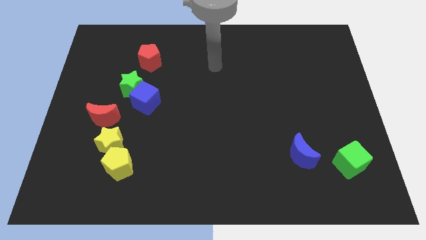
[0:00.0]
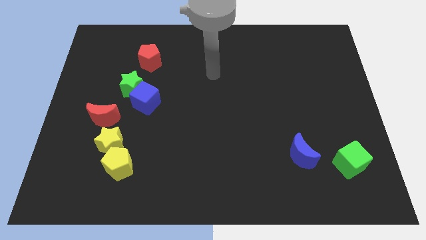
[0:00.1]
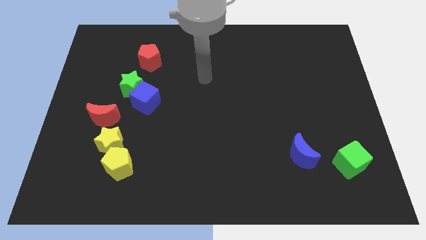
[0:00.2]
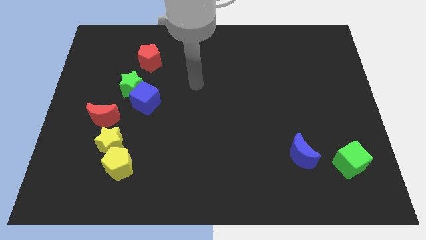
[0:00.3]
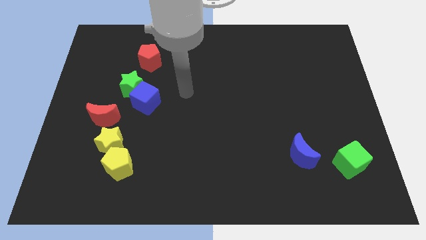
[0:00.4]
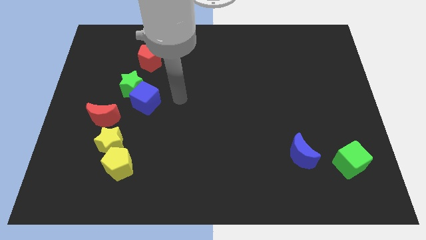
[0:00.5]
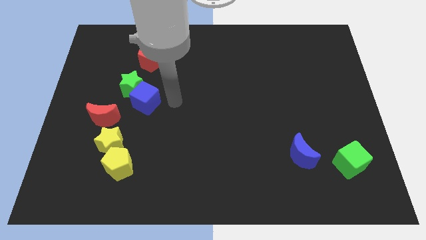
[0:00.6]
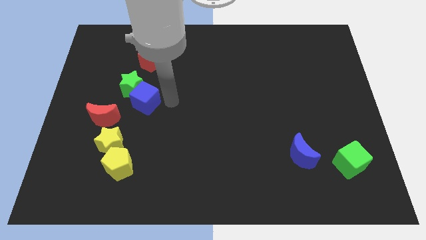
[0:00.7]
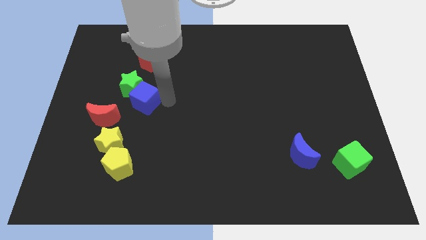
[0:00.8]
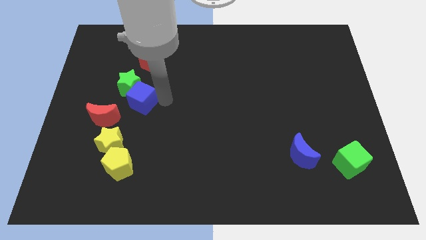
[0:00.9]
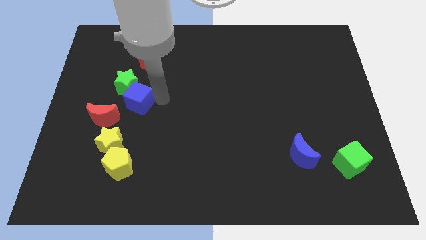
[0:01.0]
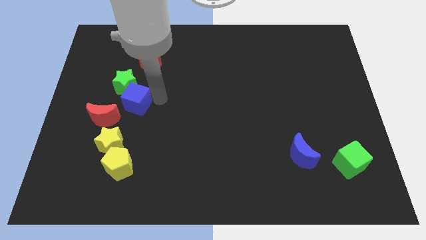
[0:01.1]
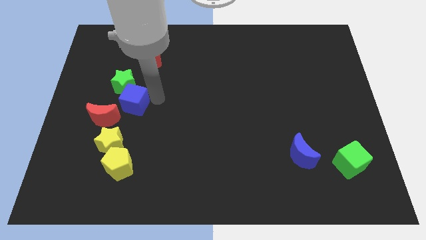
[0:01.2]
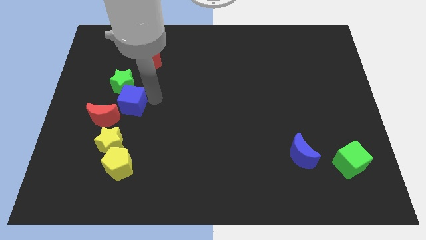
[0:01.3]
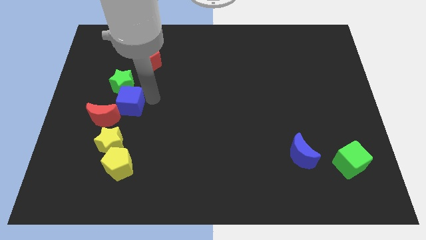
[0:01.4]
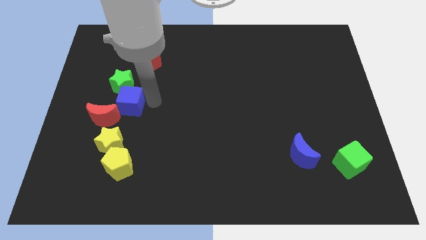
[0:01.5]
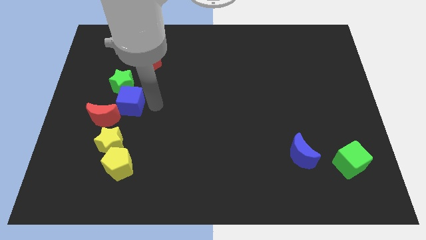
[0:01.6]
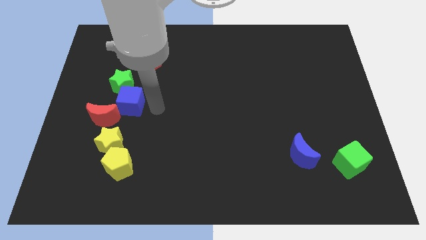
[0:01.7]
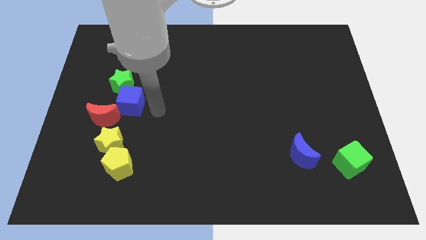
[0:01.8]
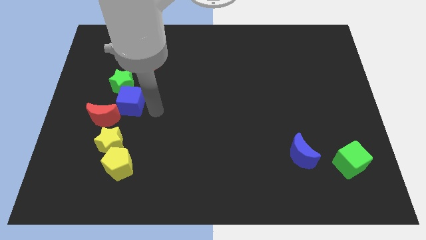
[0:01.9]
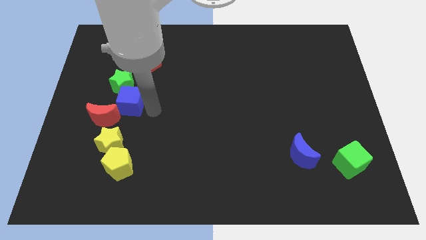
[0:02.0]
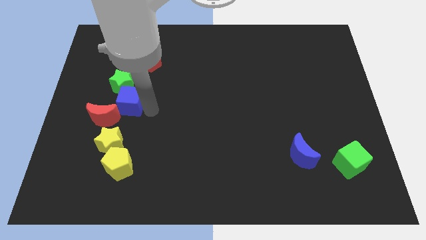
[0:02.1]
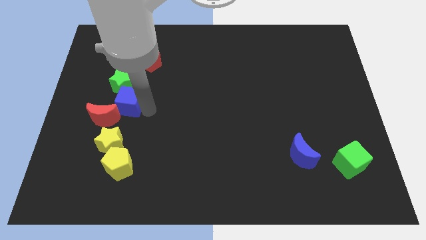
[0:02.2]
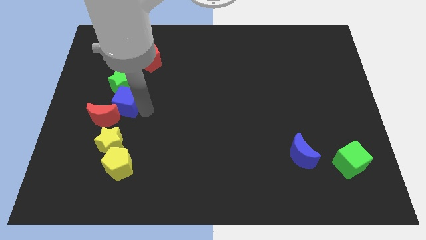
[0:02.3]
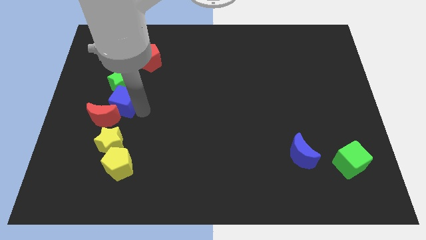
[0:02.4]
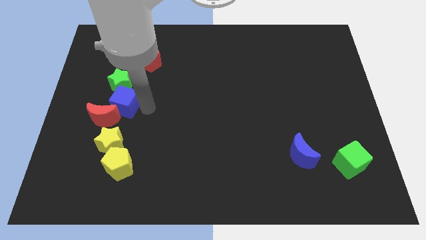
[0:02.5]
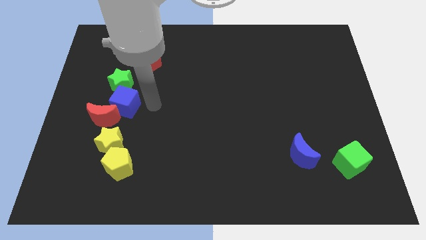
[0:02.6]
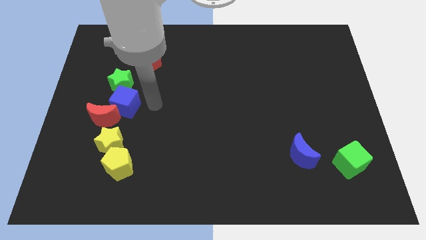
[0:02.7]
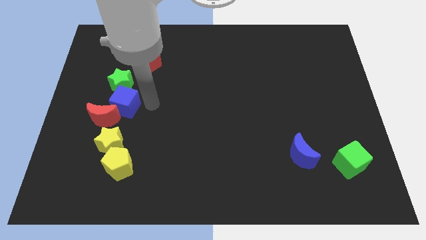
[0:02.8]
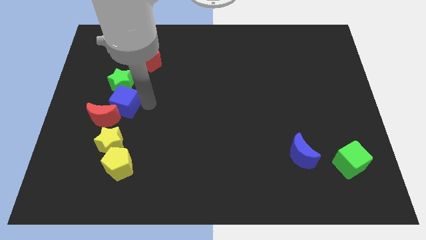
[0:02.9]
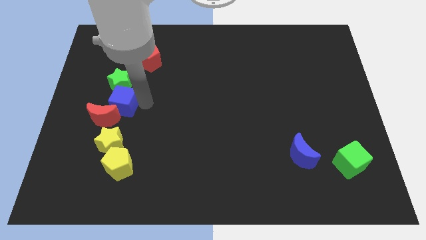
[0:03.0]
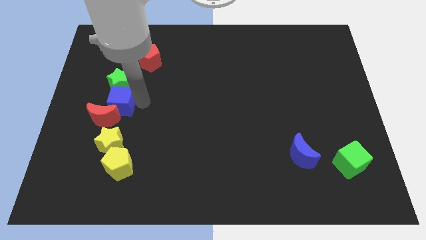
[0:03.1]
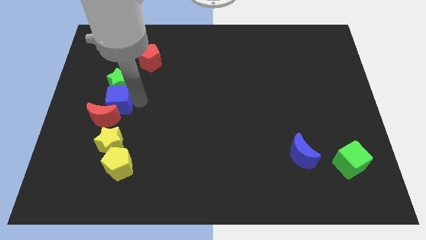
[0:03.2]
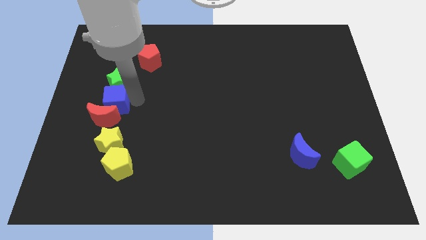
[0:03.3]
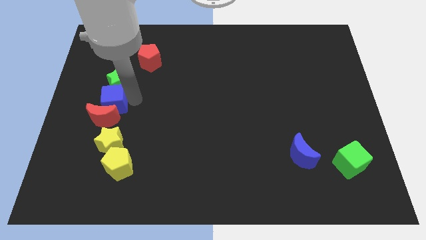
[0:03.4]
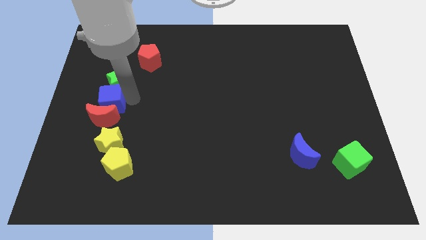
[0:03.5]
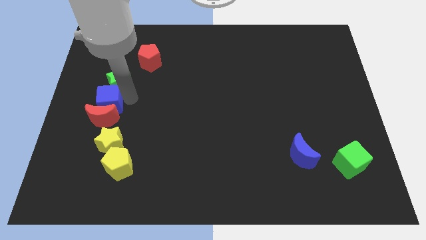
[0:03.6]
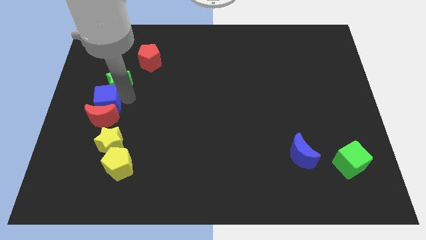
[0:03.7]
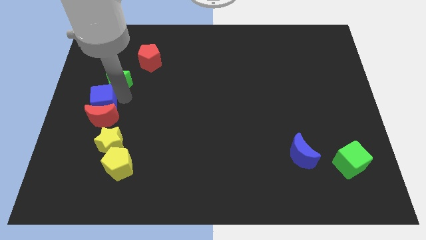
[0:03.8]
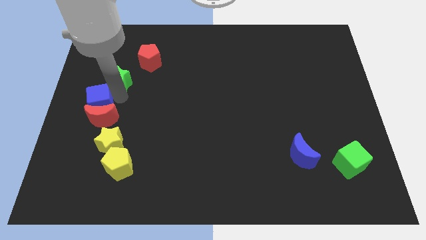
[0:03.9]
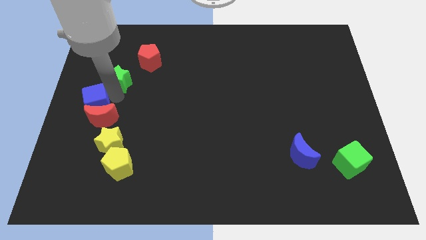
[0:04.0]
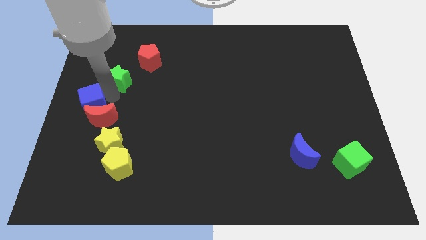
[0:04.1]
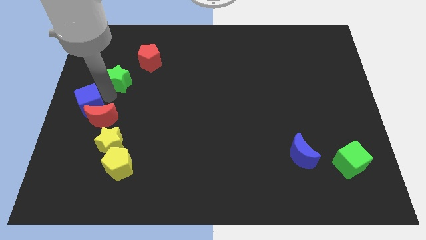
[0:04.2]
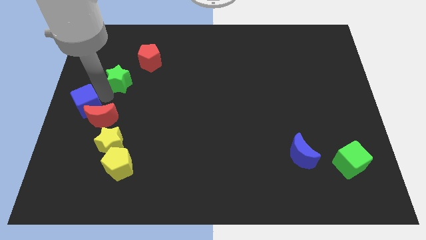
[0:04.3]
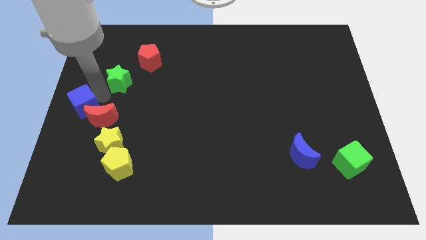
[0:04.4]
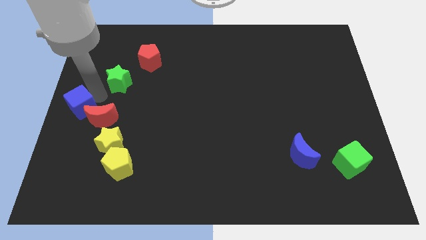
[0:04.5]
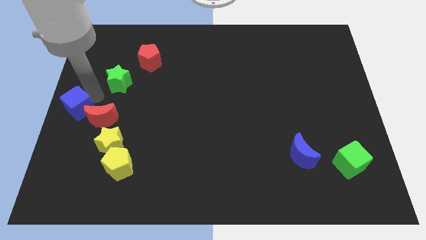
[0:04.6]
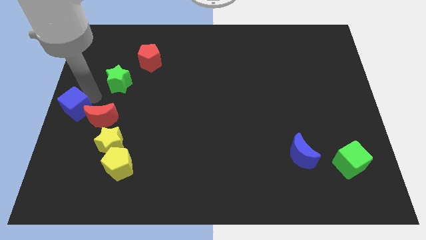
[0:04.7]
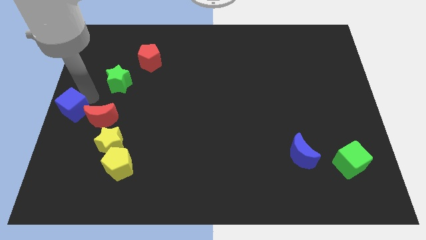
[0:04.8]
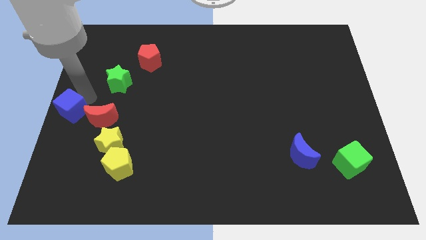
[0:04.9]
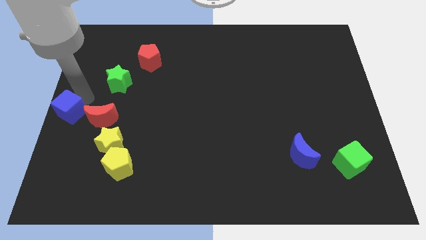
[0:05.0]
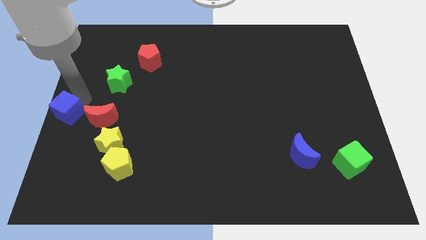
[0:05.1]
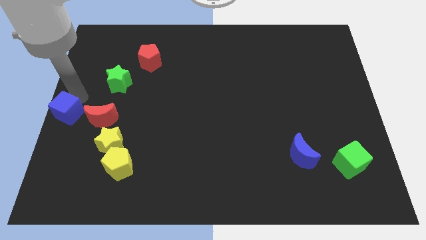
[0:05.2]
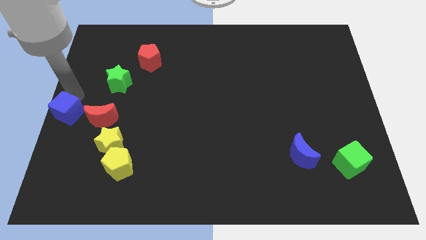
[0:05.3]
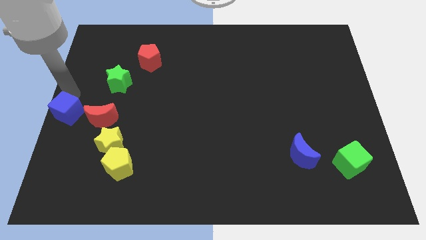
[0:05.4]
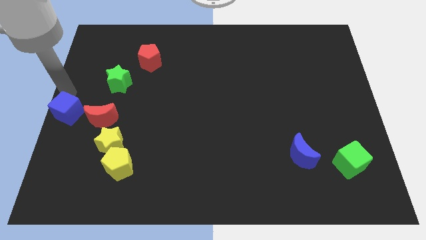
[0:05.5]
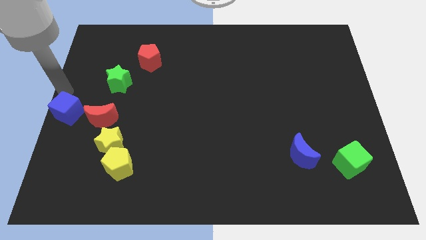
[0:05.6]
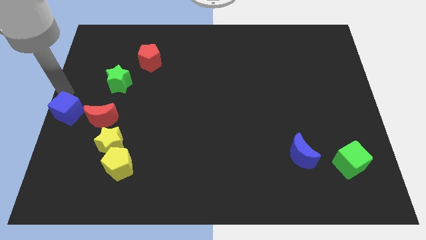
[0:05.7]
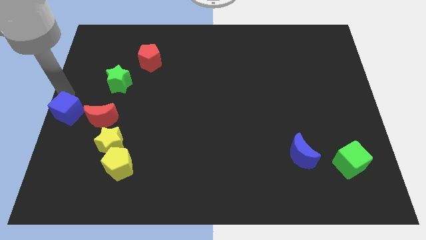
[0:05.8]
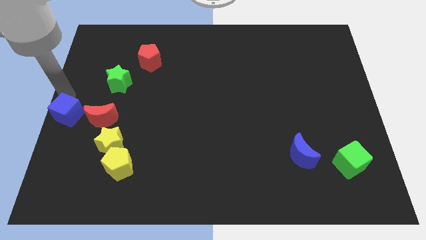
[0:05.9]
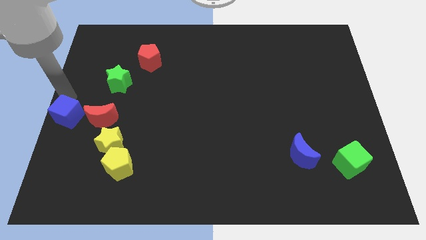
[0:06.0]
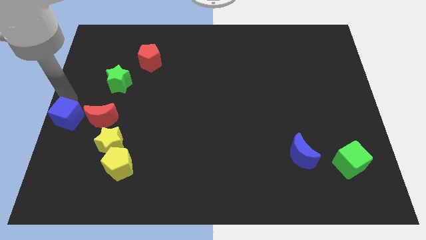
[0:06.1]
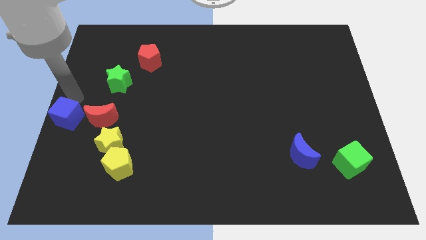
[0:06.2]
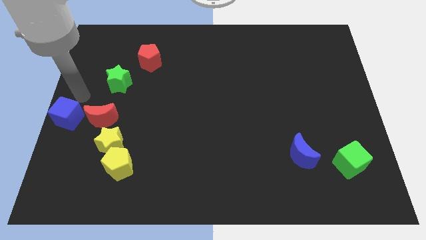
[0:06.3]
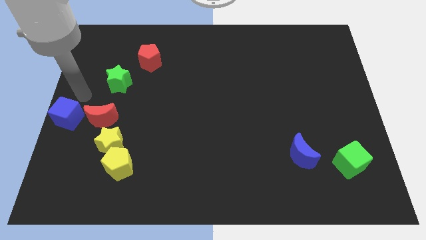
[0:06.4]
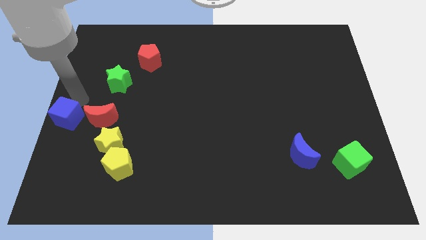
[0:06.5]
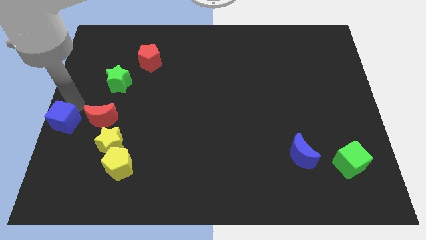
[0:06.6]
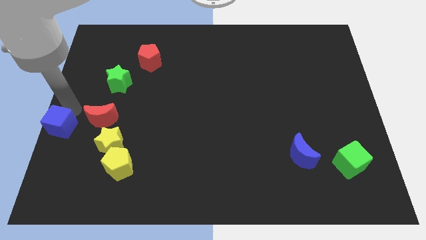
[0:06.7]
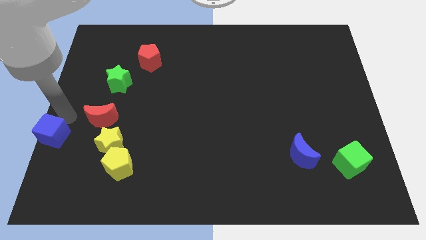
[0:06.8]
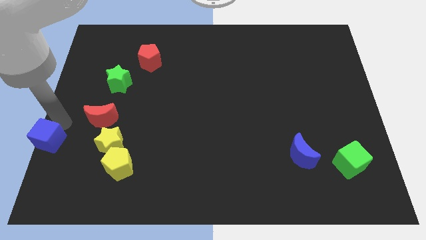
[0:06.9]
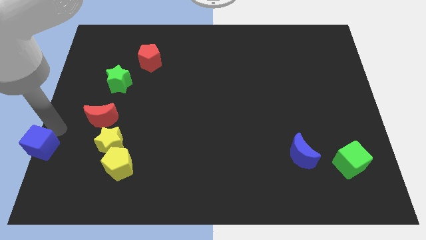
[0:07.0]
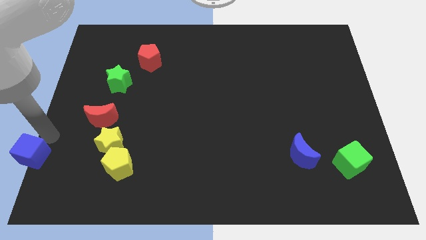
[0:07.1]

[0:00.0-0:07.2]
push the blue cube to the lower left corner
